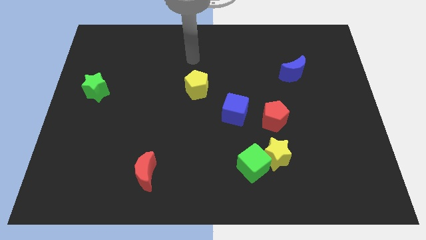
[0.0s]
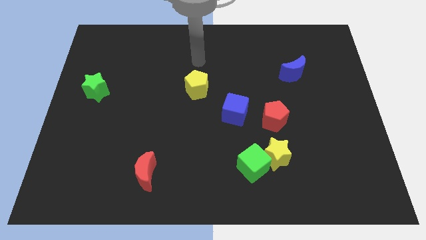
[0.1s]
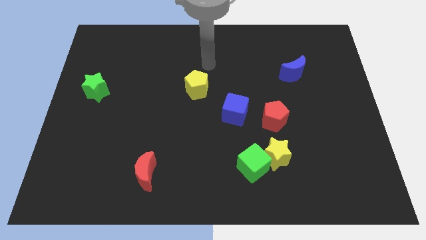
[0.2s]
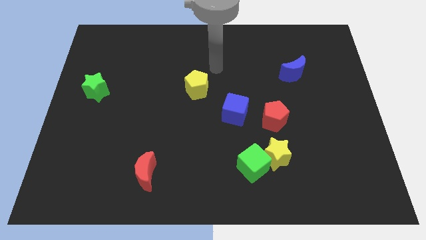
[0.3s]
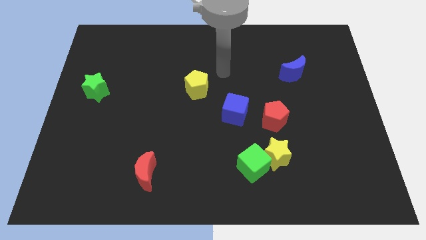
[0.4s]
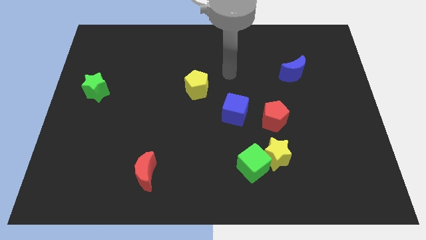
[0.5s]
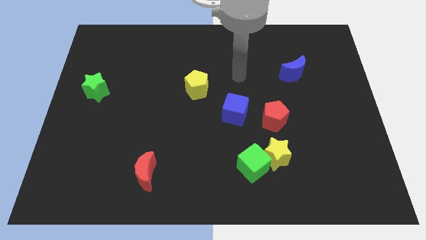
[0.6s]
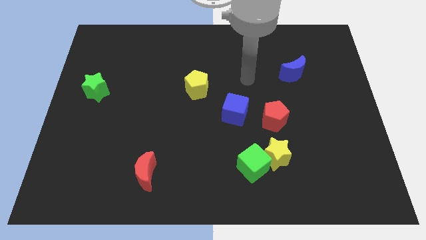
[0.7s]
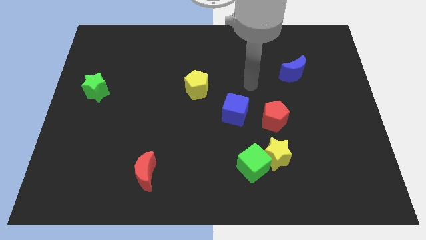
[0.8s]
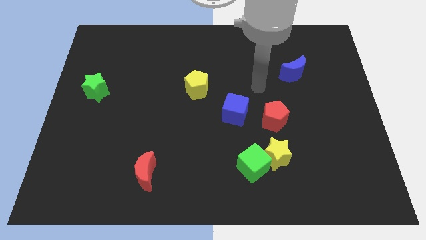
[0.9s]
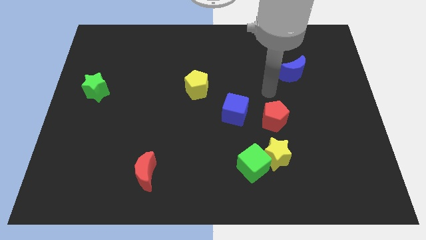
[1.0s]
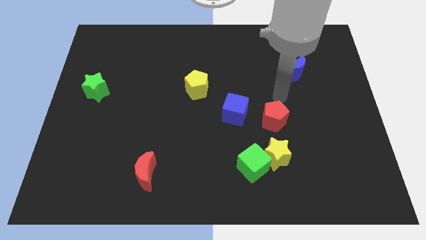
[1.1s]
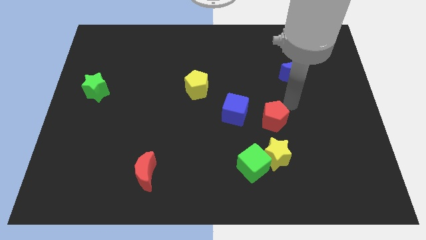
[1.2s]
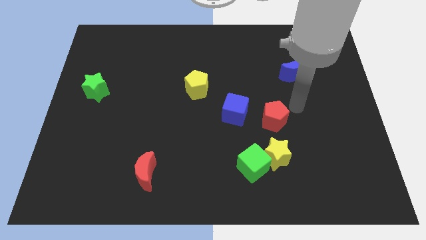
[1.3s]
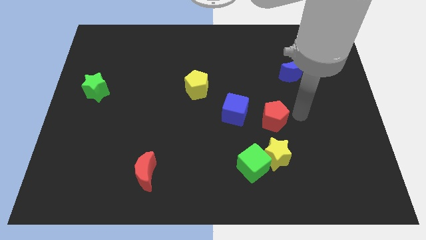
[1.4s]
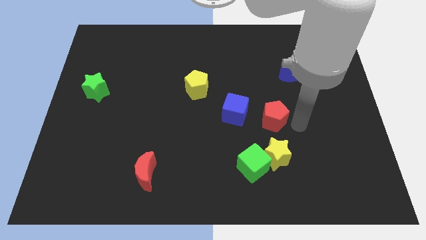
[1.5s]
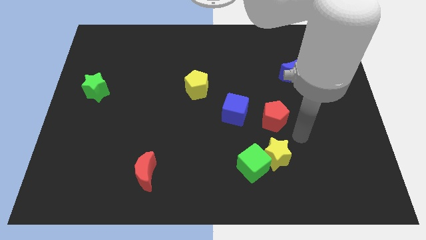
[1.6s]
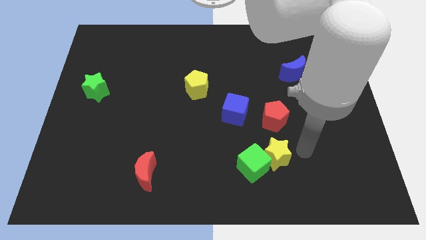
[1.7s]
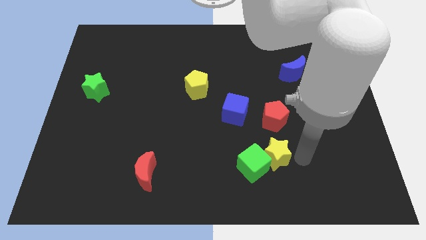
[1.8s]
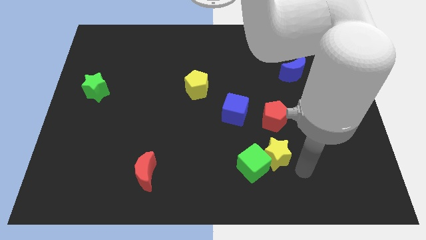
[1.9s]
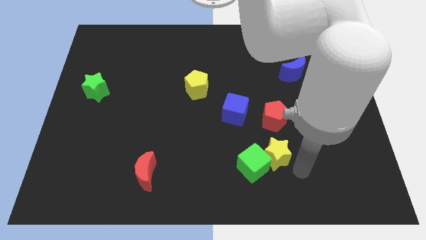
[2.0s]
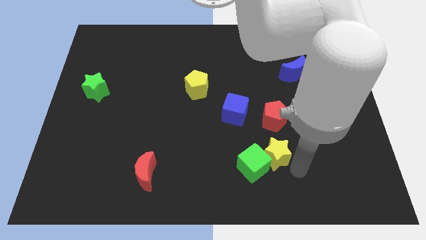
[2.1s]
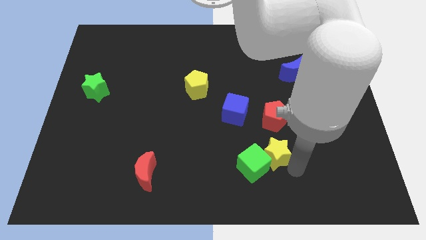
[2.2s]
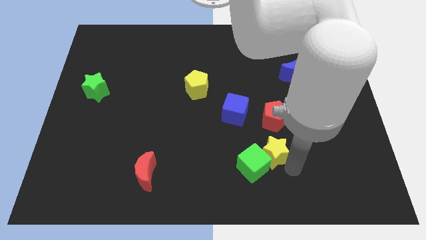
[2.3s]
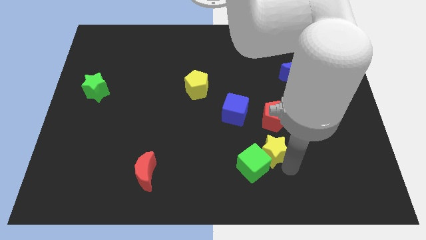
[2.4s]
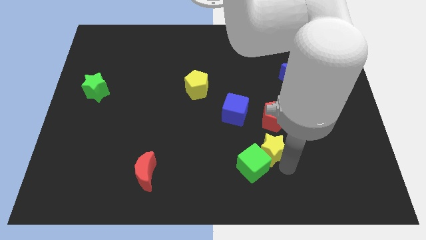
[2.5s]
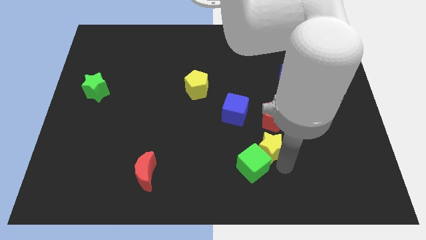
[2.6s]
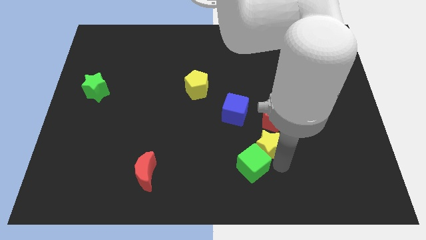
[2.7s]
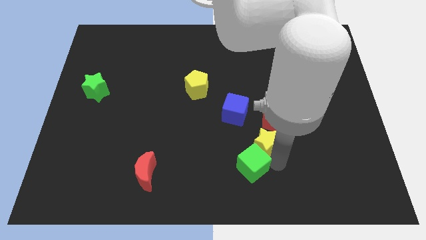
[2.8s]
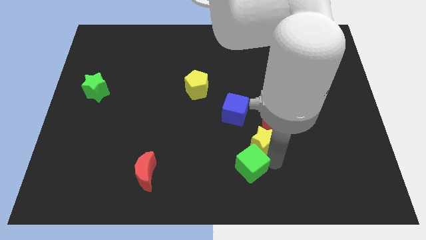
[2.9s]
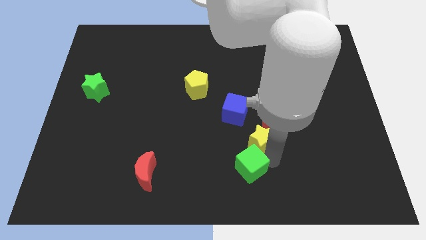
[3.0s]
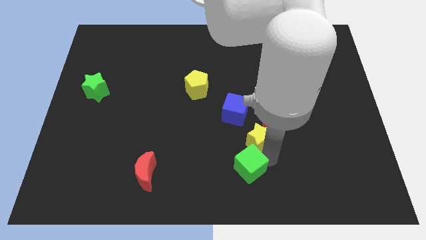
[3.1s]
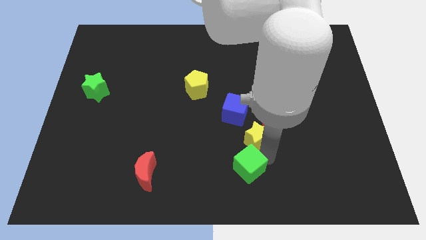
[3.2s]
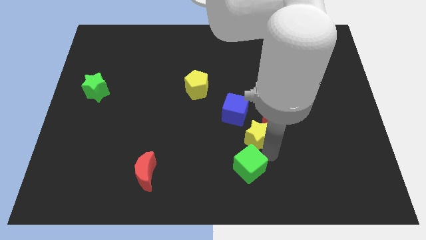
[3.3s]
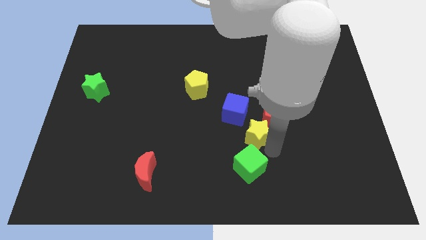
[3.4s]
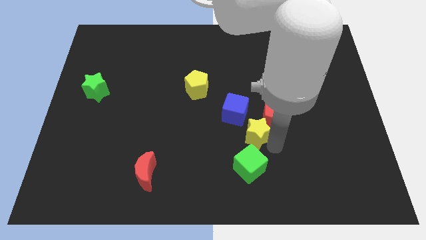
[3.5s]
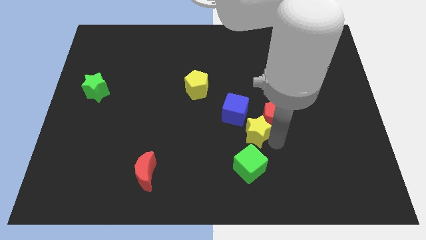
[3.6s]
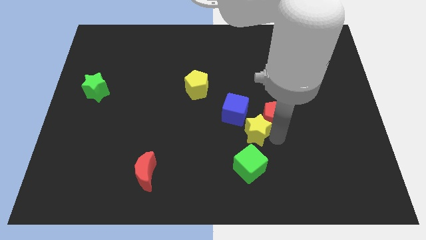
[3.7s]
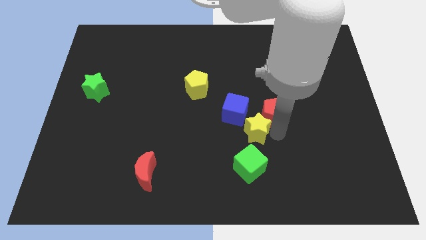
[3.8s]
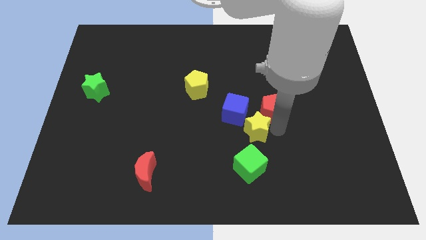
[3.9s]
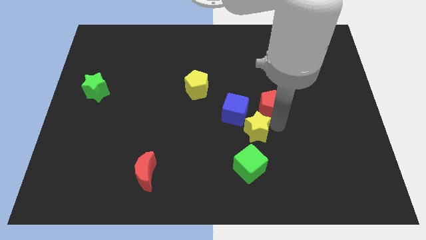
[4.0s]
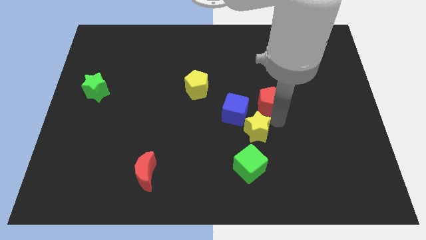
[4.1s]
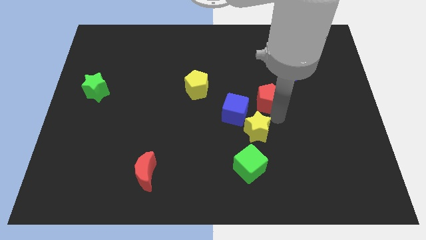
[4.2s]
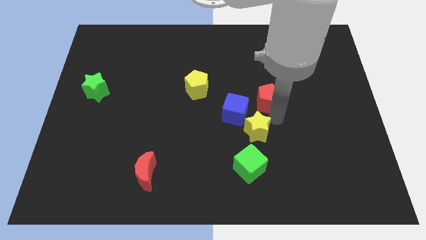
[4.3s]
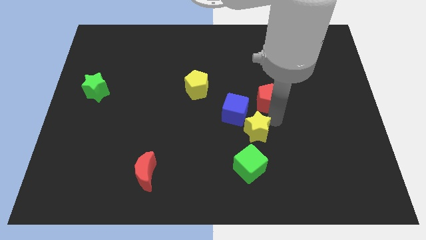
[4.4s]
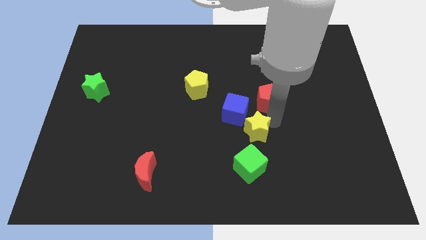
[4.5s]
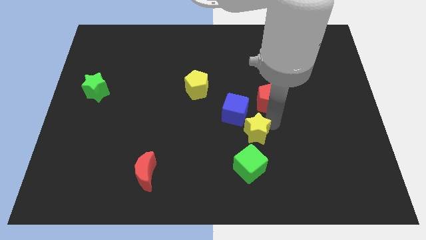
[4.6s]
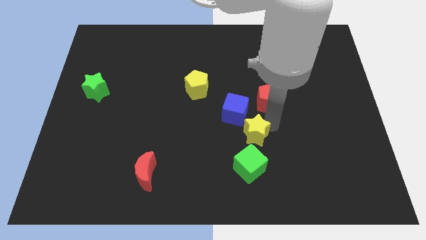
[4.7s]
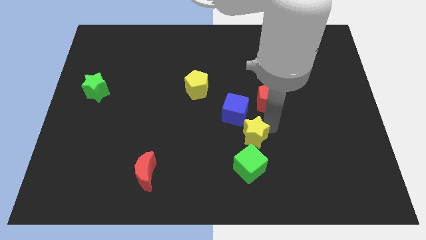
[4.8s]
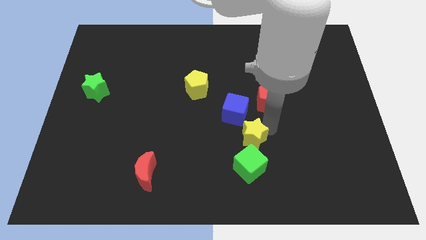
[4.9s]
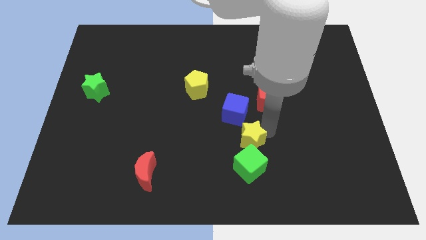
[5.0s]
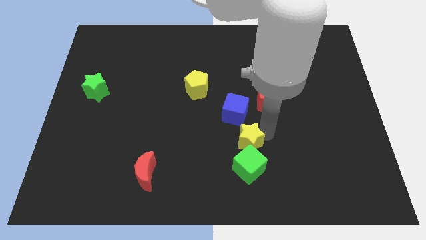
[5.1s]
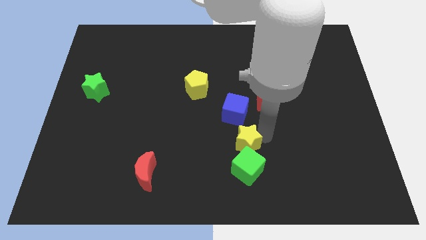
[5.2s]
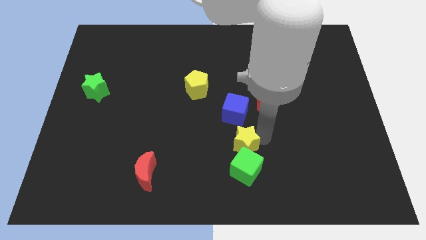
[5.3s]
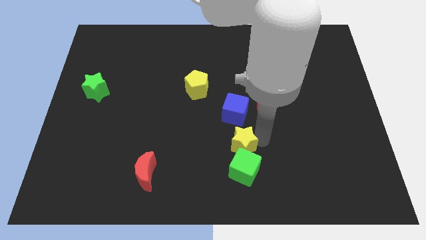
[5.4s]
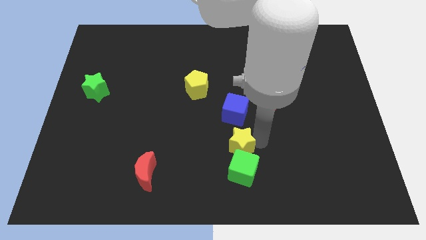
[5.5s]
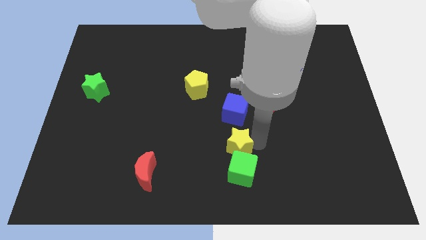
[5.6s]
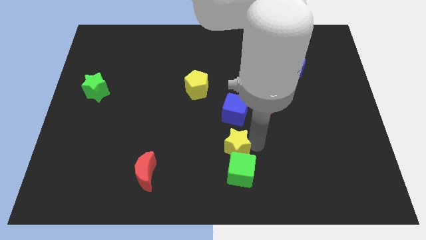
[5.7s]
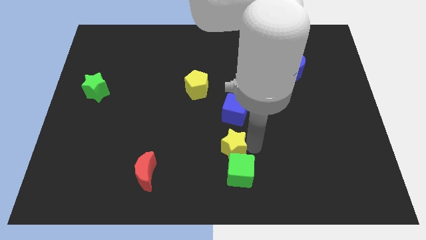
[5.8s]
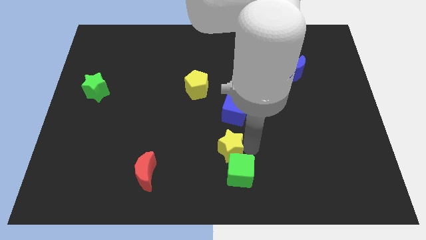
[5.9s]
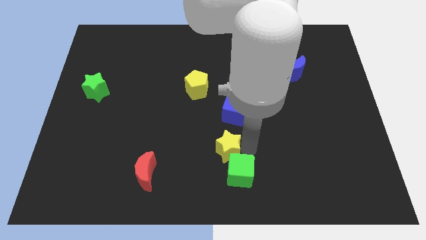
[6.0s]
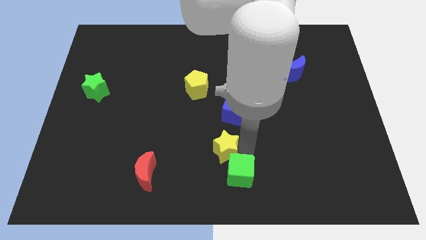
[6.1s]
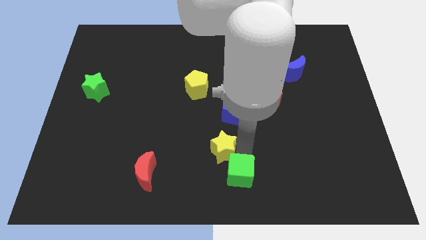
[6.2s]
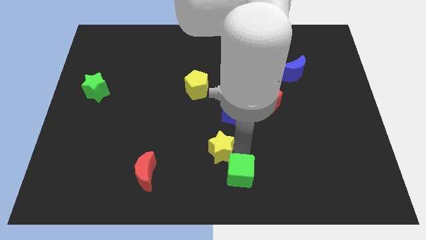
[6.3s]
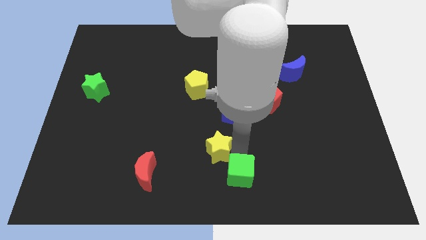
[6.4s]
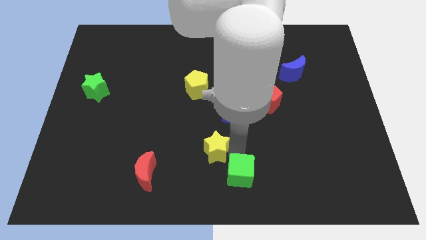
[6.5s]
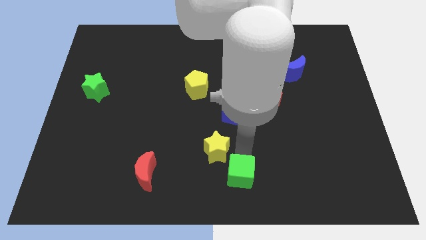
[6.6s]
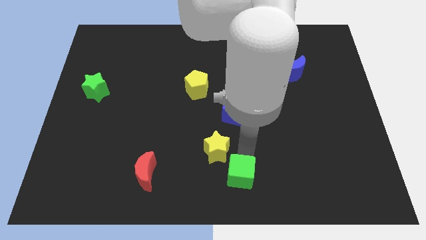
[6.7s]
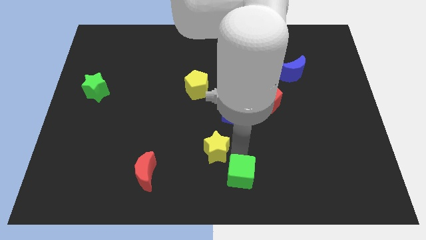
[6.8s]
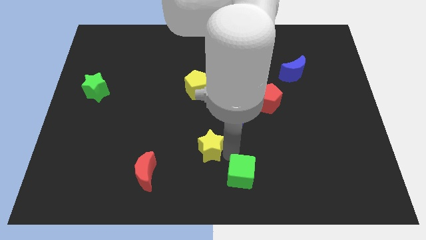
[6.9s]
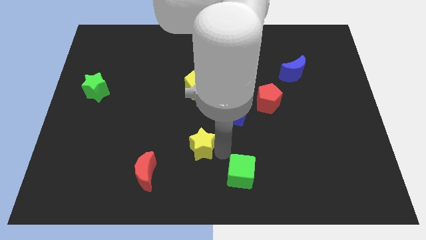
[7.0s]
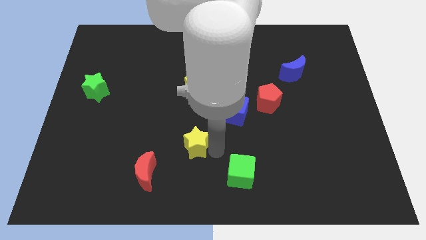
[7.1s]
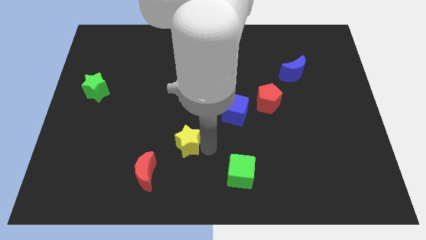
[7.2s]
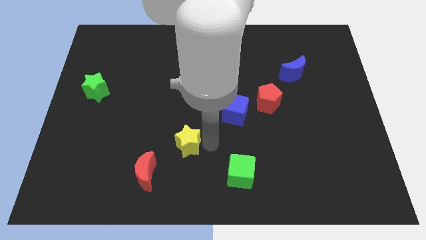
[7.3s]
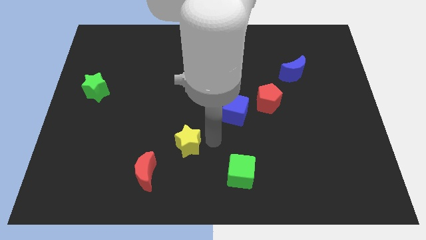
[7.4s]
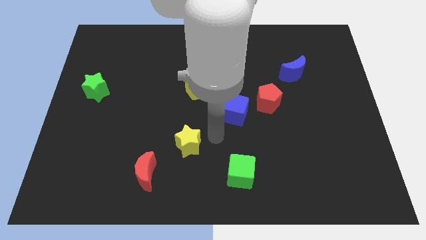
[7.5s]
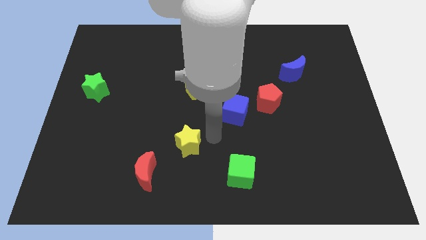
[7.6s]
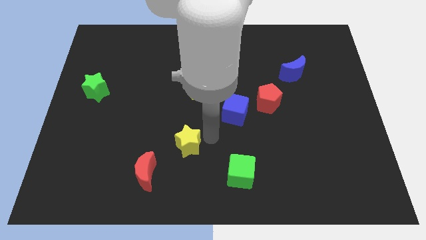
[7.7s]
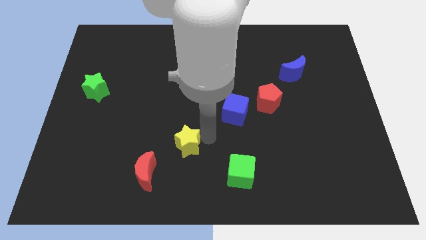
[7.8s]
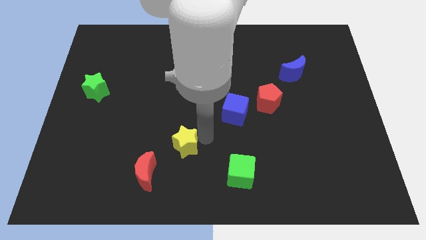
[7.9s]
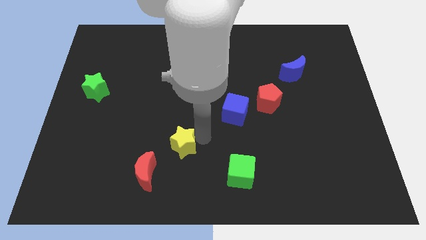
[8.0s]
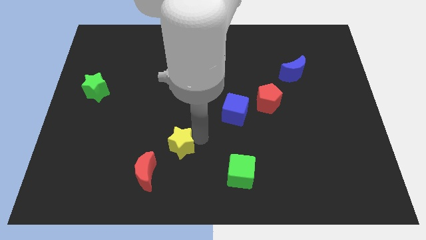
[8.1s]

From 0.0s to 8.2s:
push the yellow star to the left
